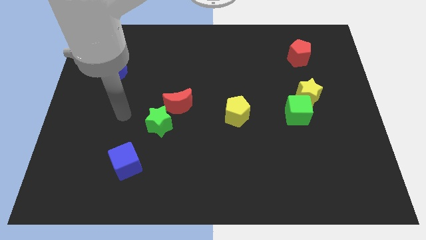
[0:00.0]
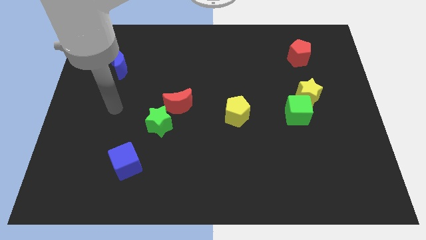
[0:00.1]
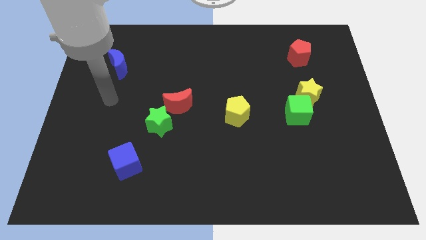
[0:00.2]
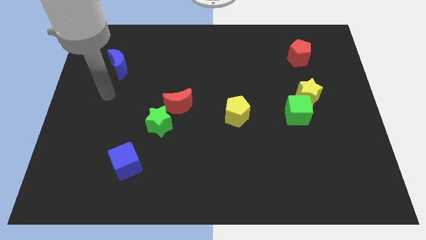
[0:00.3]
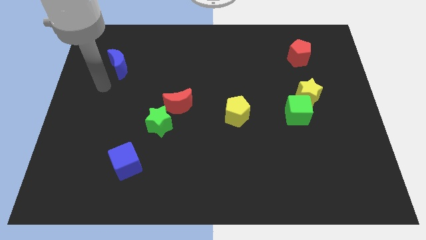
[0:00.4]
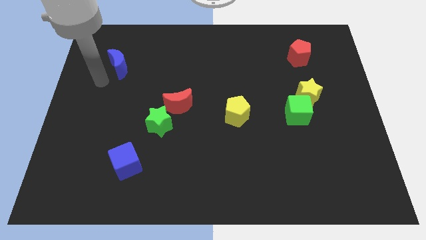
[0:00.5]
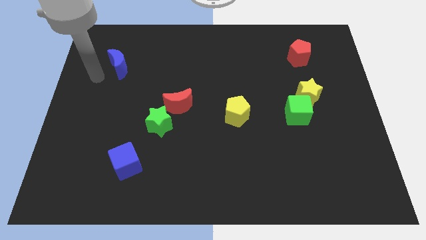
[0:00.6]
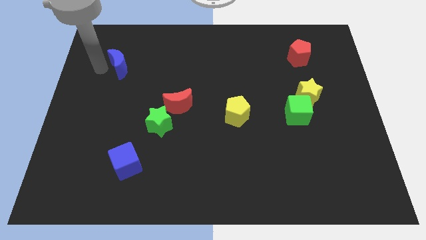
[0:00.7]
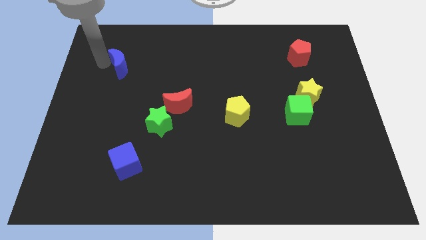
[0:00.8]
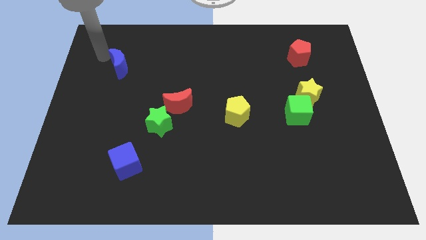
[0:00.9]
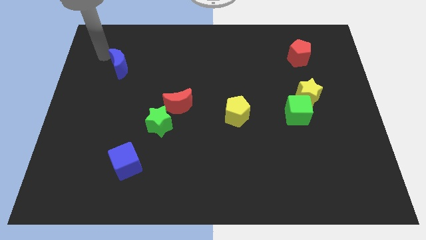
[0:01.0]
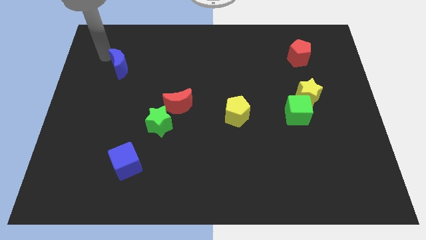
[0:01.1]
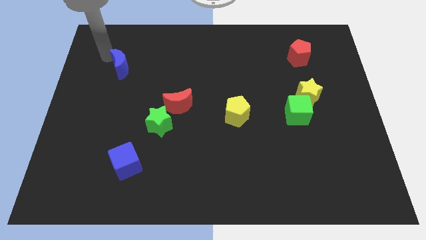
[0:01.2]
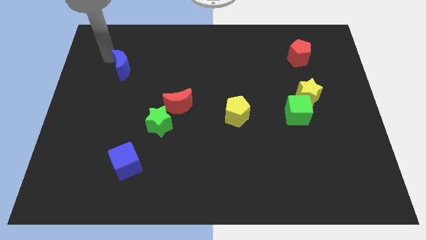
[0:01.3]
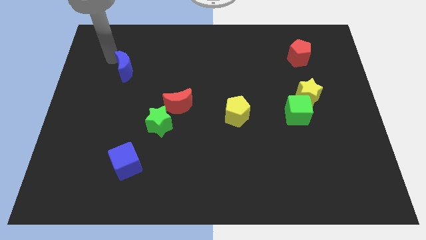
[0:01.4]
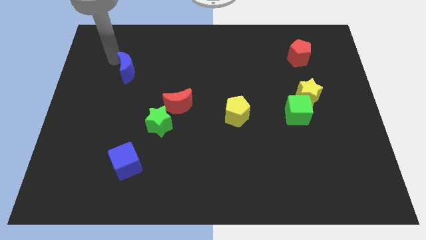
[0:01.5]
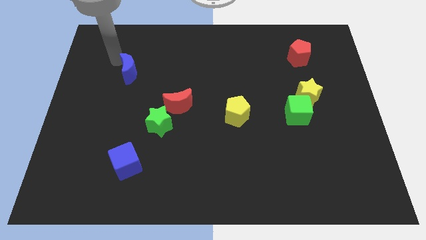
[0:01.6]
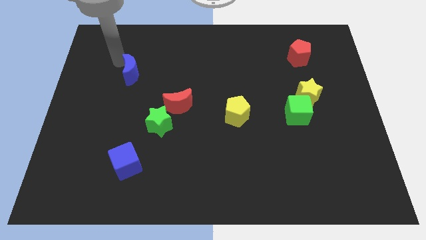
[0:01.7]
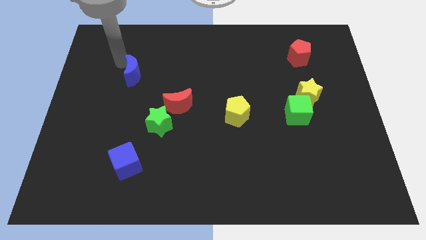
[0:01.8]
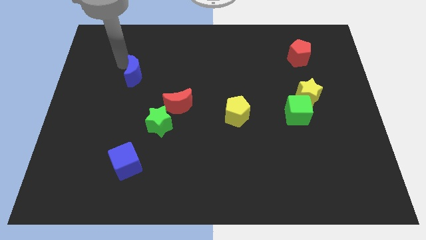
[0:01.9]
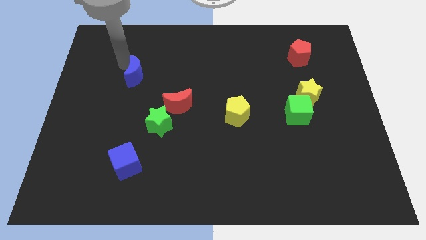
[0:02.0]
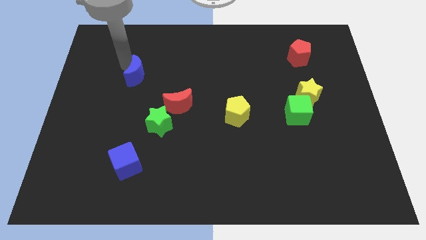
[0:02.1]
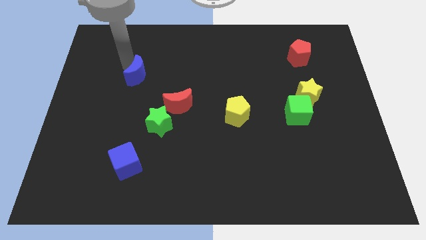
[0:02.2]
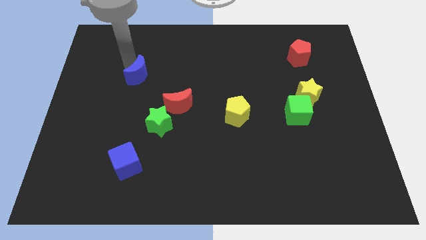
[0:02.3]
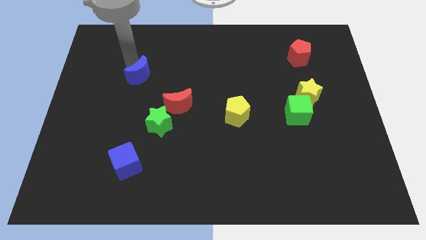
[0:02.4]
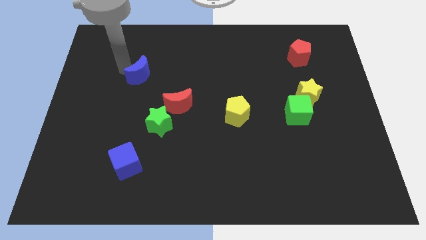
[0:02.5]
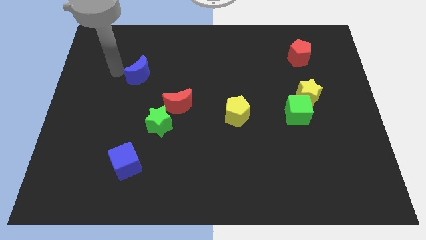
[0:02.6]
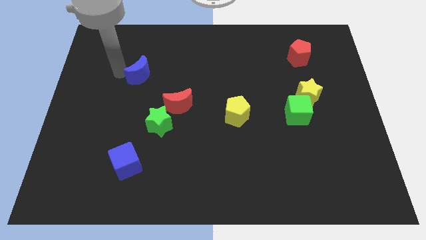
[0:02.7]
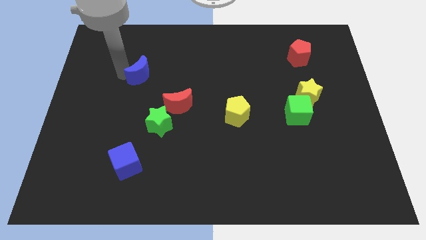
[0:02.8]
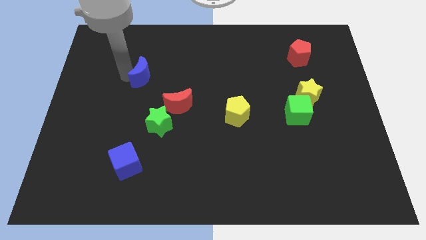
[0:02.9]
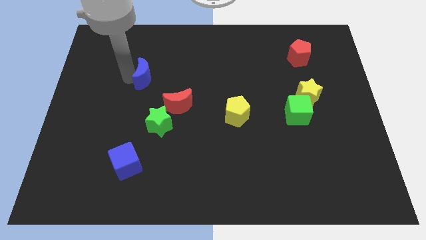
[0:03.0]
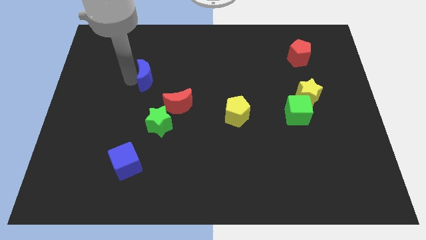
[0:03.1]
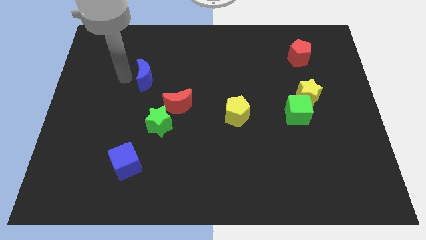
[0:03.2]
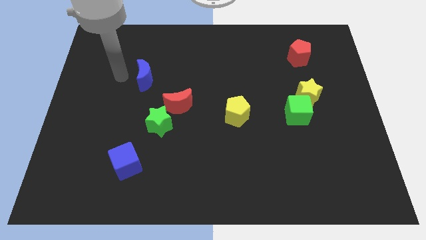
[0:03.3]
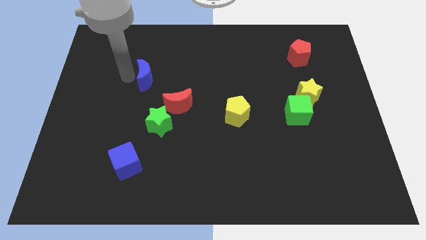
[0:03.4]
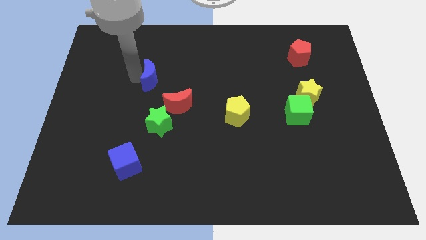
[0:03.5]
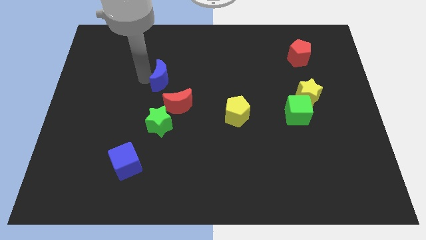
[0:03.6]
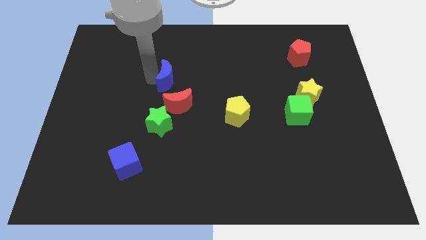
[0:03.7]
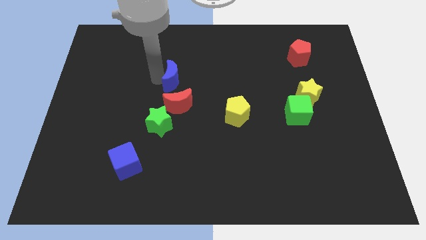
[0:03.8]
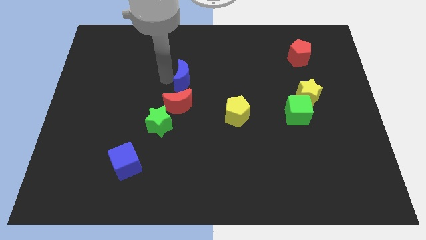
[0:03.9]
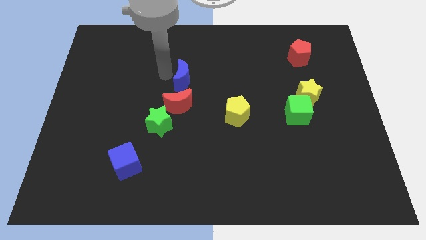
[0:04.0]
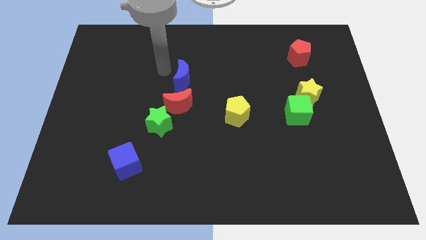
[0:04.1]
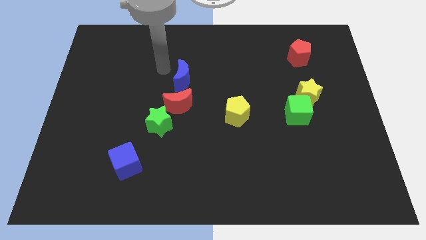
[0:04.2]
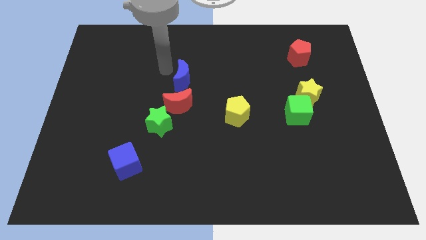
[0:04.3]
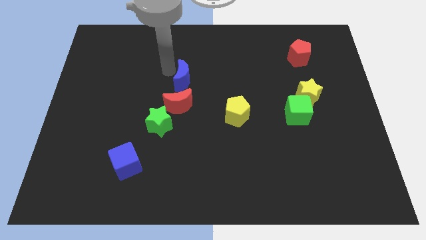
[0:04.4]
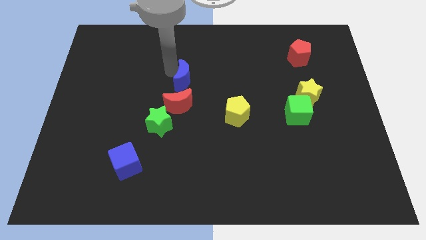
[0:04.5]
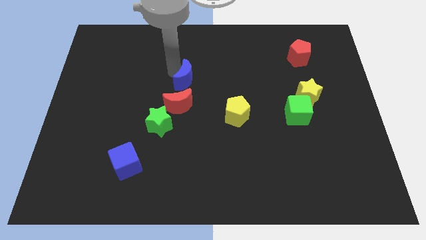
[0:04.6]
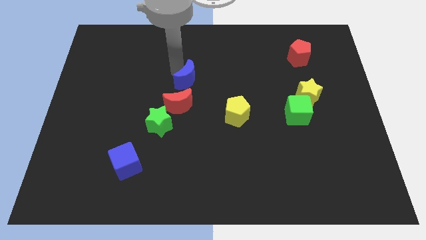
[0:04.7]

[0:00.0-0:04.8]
put the blue moon to the top right side of the red moon

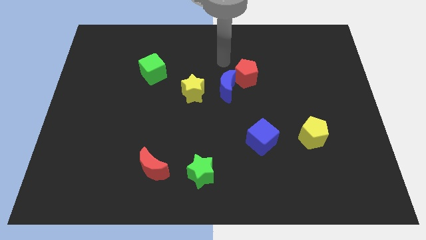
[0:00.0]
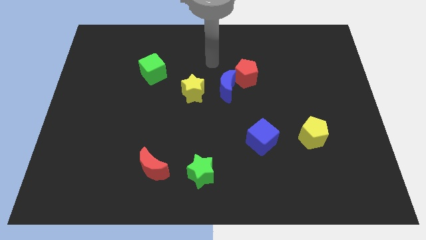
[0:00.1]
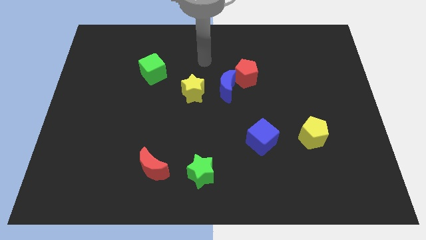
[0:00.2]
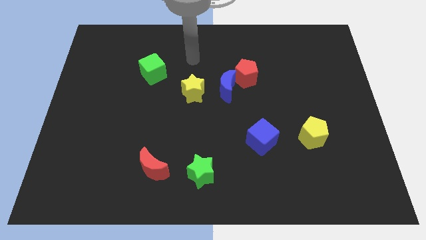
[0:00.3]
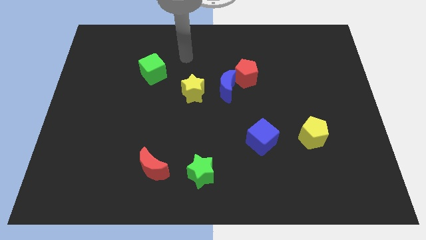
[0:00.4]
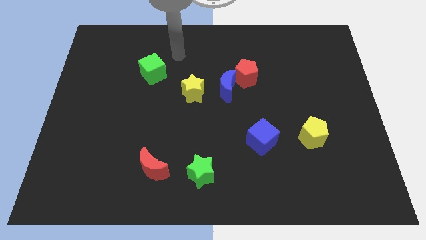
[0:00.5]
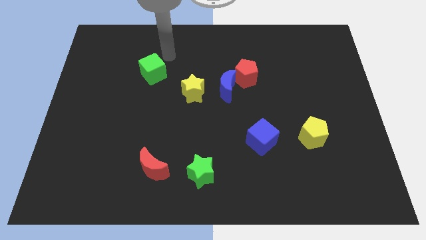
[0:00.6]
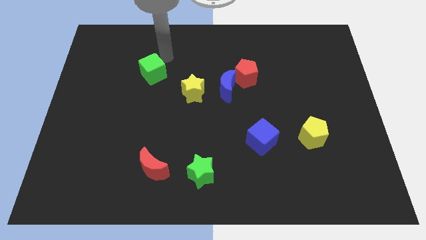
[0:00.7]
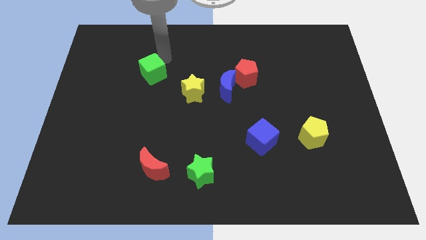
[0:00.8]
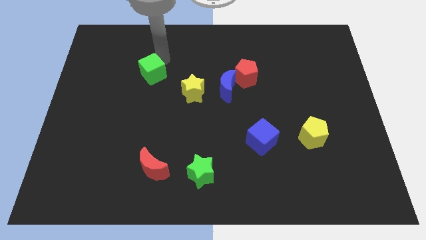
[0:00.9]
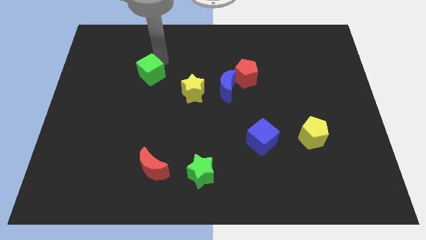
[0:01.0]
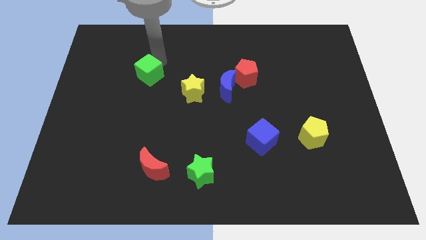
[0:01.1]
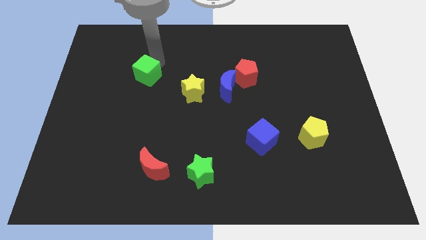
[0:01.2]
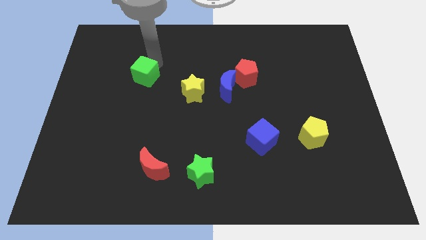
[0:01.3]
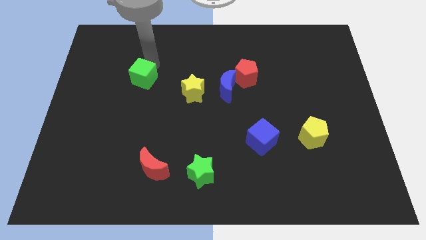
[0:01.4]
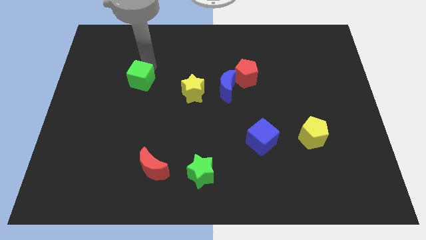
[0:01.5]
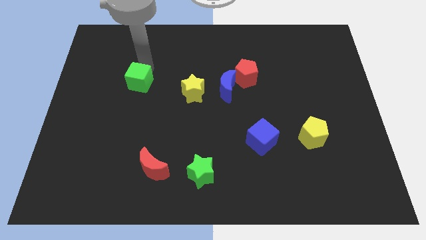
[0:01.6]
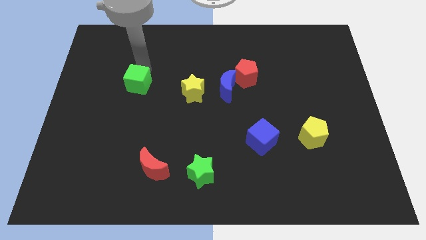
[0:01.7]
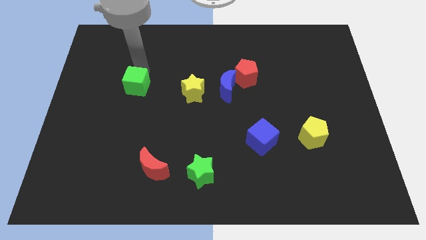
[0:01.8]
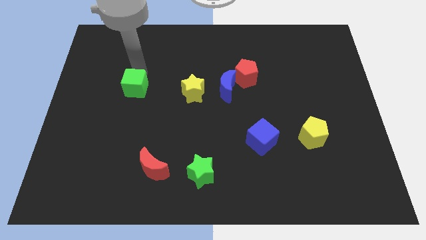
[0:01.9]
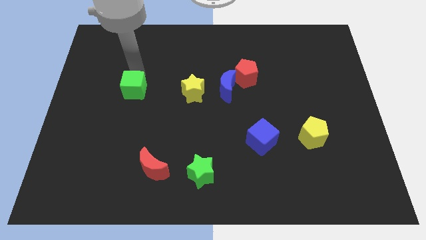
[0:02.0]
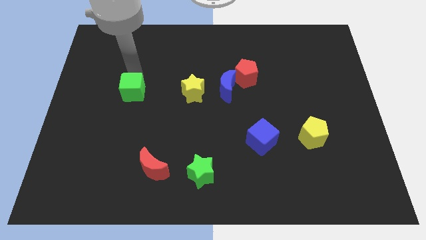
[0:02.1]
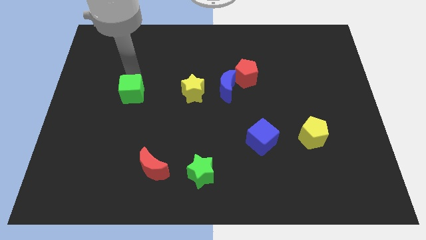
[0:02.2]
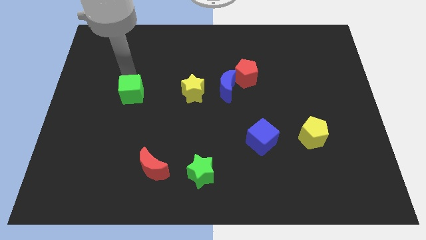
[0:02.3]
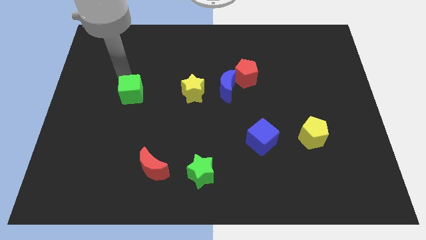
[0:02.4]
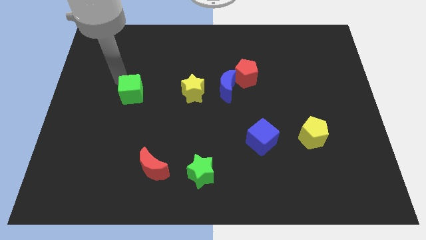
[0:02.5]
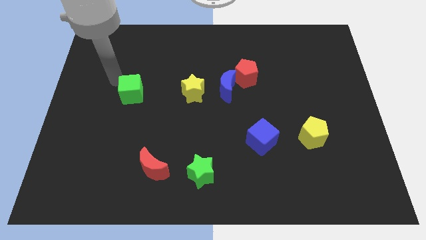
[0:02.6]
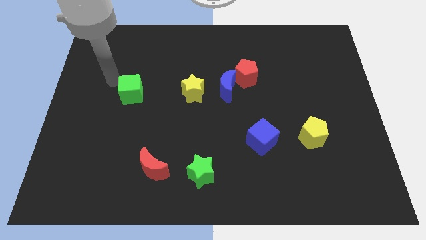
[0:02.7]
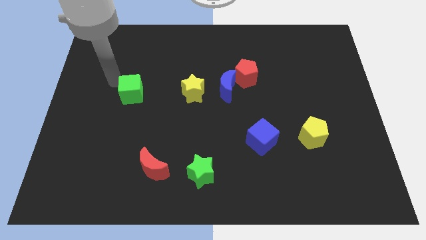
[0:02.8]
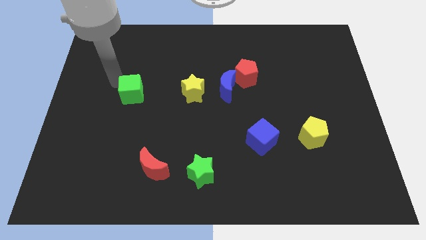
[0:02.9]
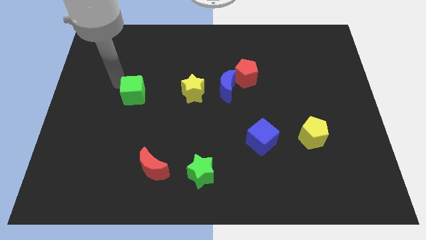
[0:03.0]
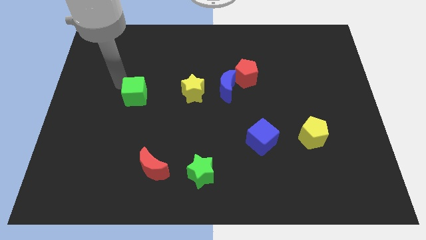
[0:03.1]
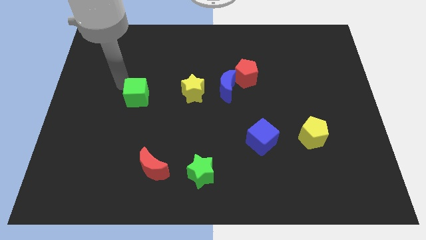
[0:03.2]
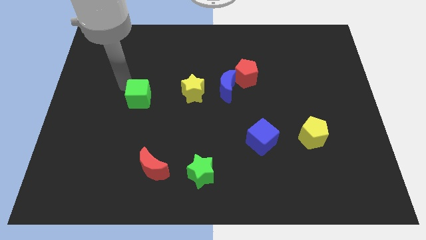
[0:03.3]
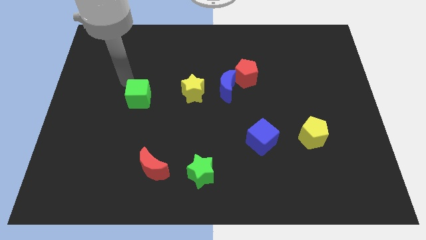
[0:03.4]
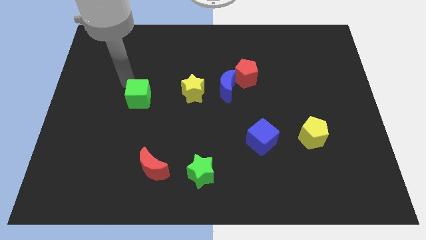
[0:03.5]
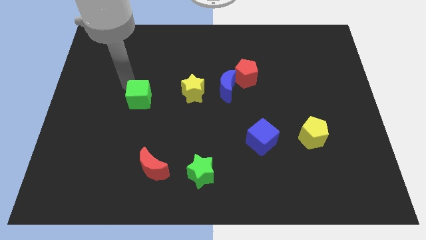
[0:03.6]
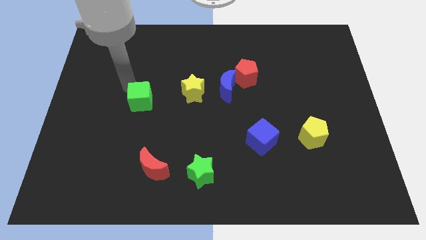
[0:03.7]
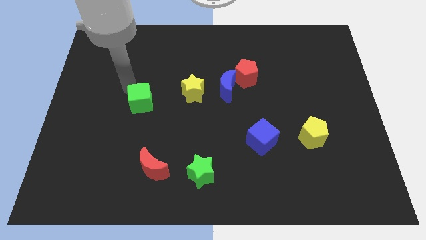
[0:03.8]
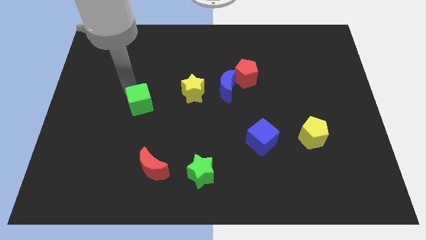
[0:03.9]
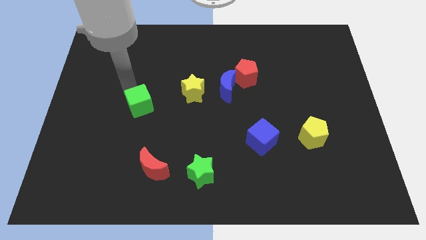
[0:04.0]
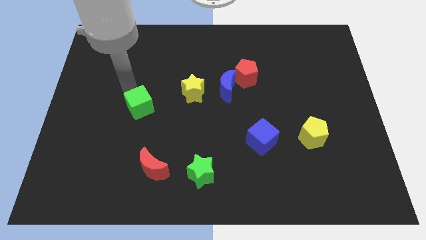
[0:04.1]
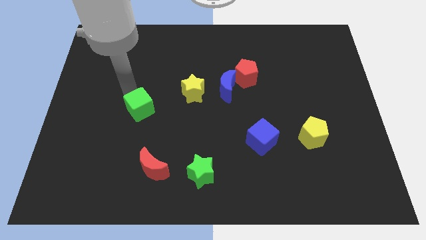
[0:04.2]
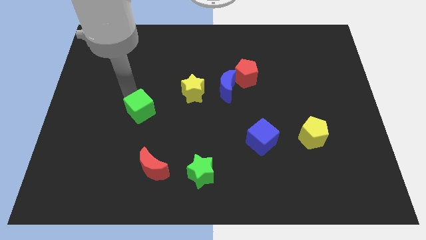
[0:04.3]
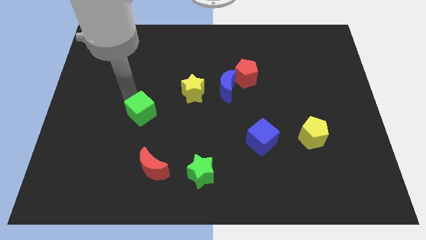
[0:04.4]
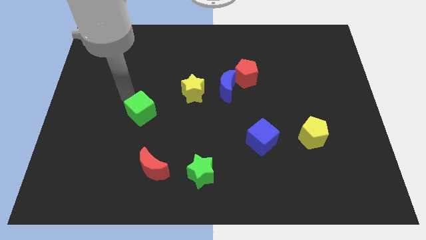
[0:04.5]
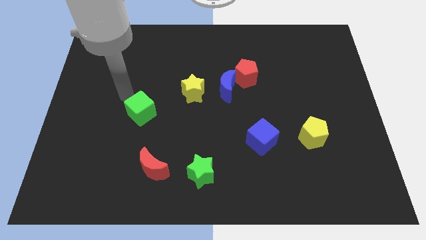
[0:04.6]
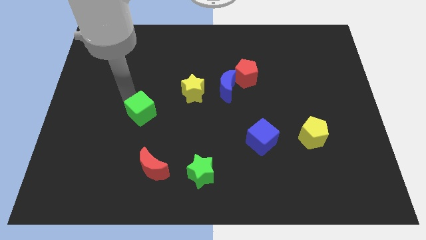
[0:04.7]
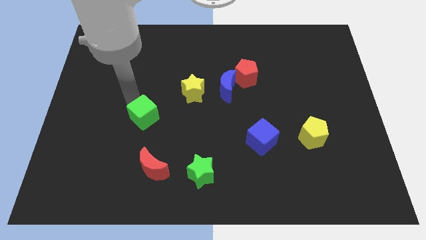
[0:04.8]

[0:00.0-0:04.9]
move the green cube to the top side of the red moon
